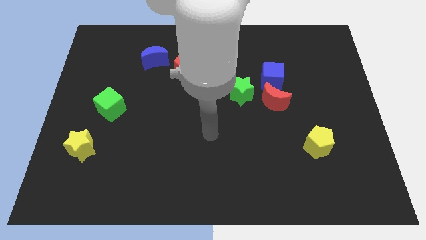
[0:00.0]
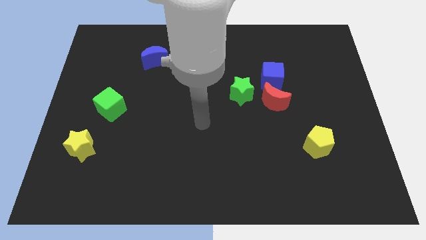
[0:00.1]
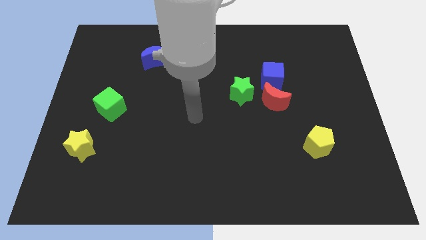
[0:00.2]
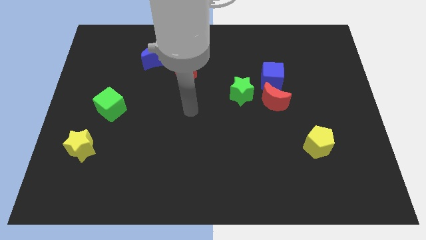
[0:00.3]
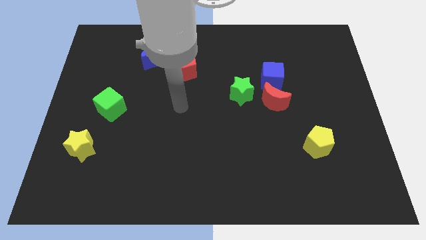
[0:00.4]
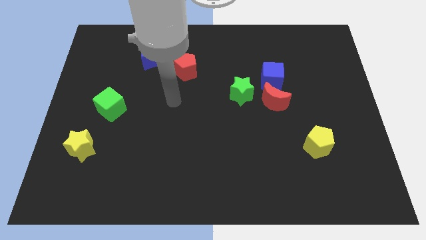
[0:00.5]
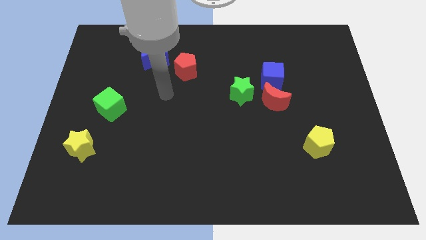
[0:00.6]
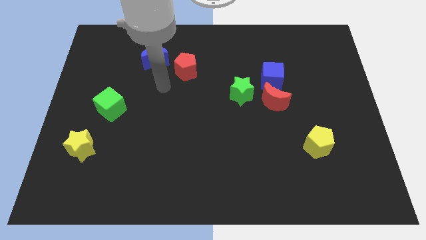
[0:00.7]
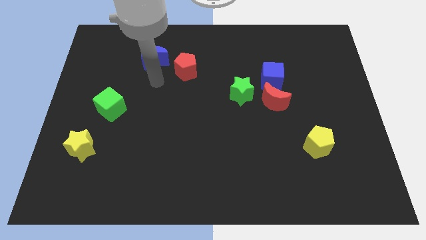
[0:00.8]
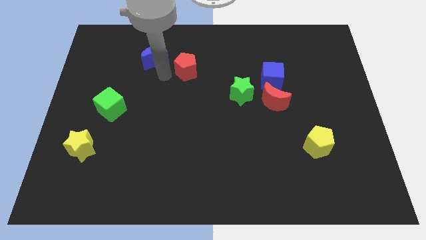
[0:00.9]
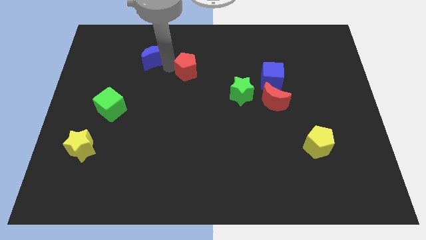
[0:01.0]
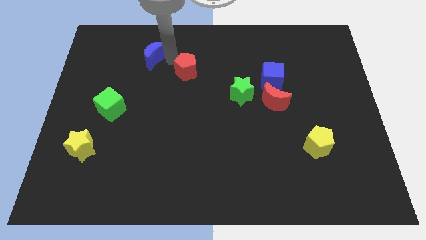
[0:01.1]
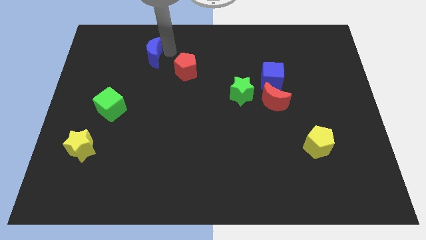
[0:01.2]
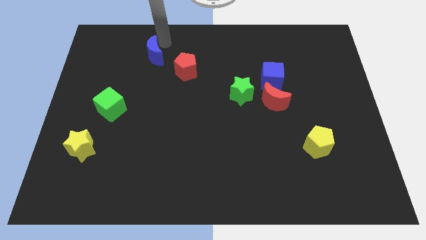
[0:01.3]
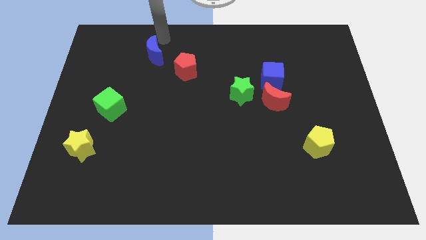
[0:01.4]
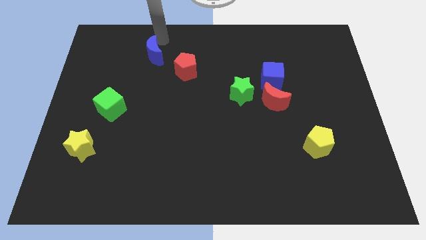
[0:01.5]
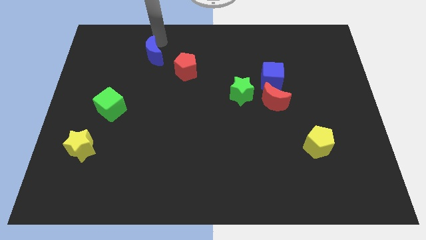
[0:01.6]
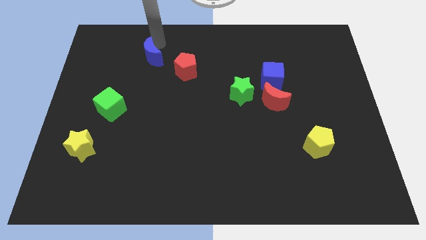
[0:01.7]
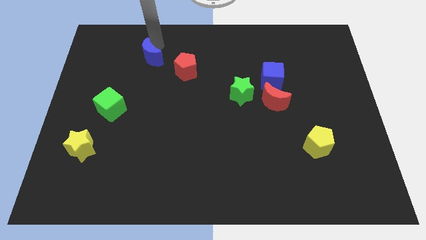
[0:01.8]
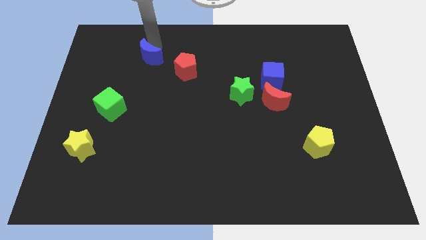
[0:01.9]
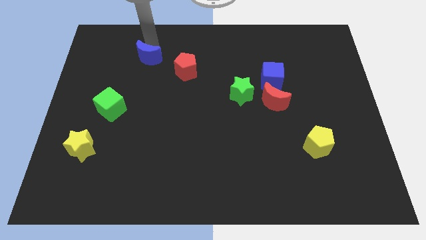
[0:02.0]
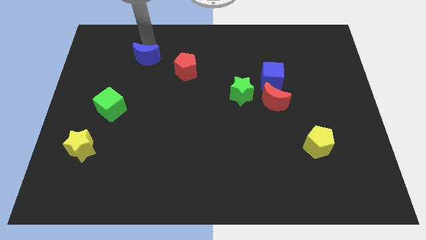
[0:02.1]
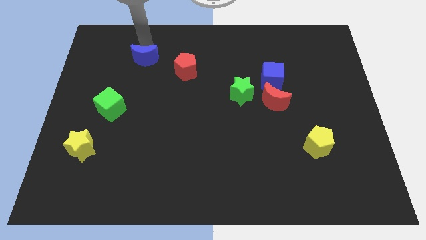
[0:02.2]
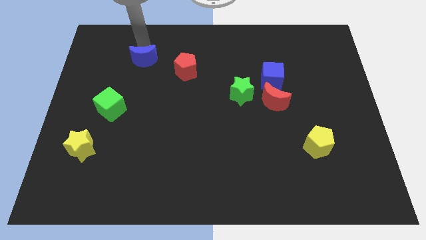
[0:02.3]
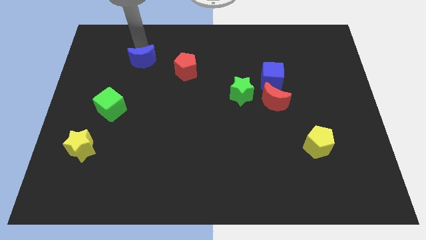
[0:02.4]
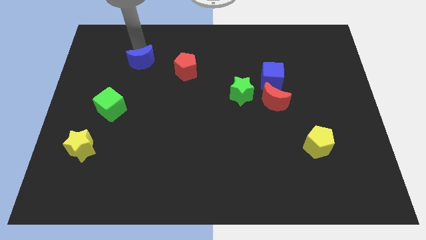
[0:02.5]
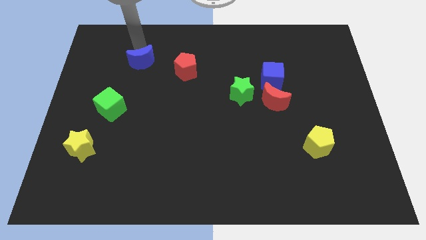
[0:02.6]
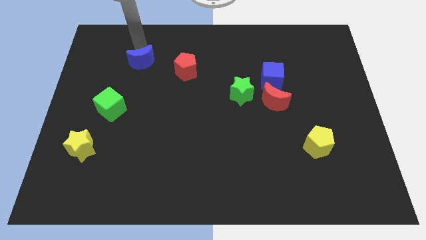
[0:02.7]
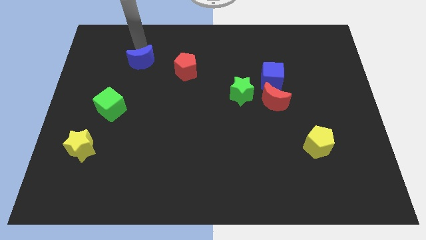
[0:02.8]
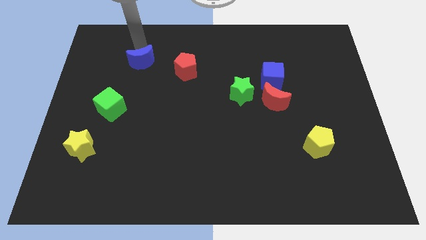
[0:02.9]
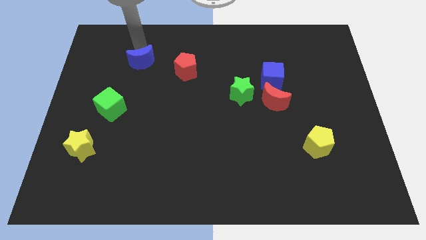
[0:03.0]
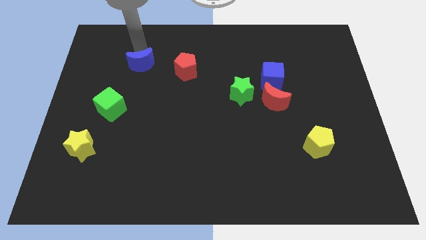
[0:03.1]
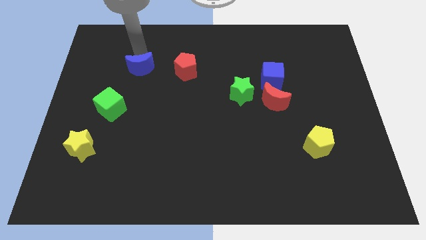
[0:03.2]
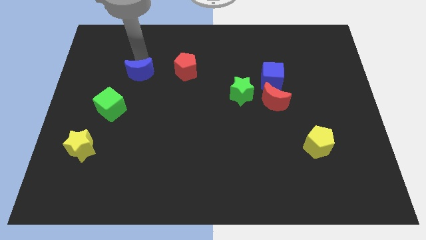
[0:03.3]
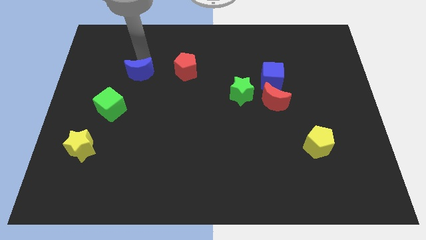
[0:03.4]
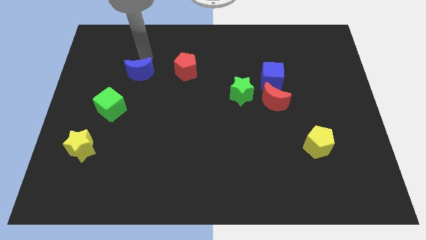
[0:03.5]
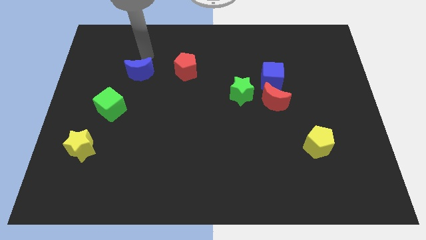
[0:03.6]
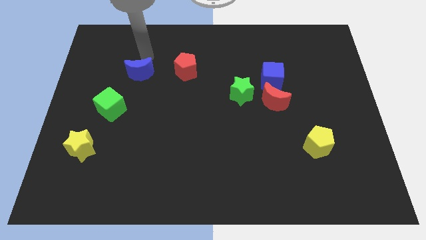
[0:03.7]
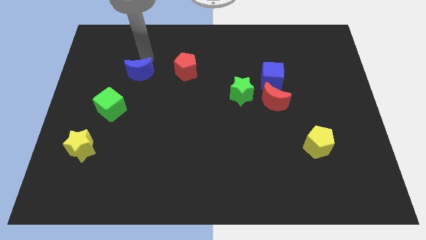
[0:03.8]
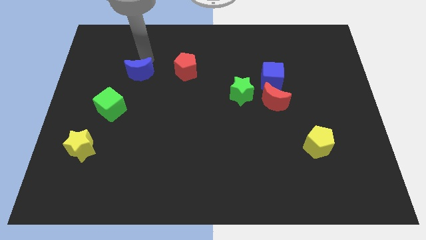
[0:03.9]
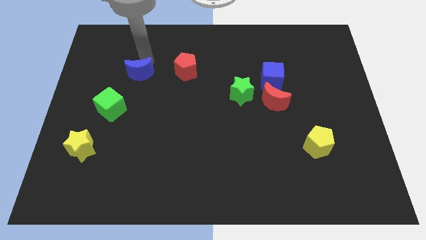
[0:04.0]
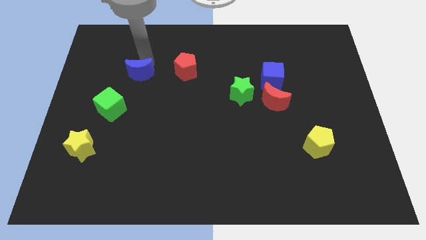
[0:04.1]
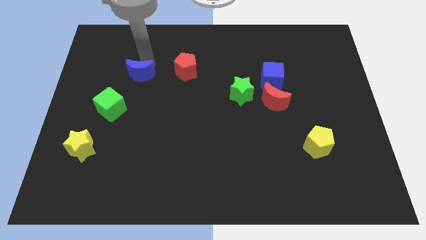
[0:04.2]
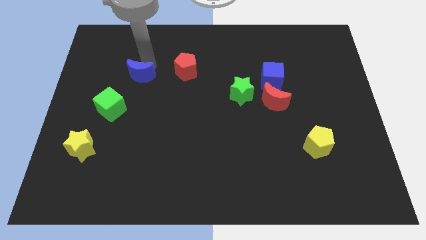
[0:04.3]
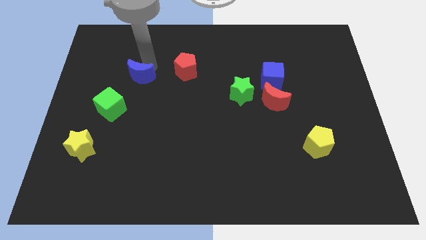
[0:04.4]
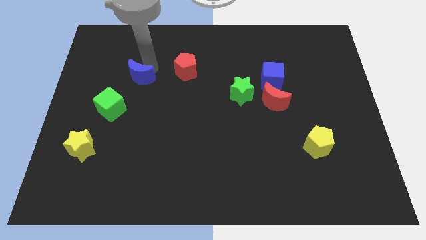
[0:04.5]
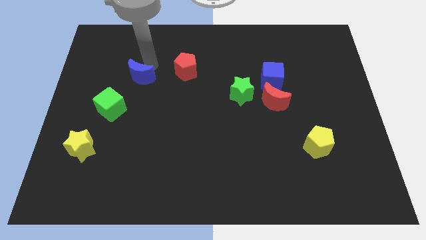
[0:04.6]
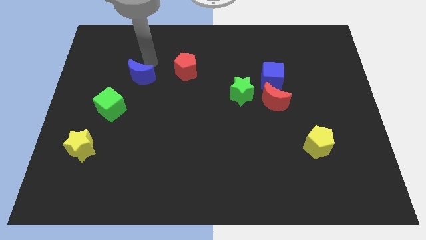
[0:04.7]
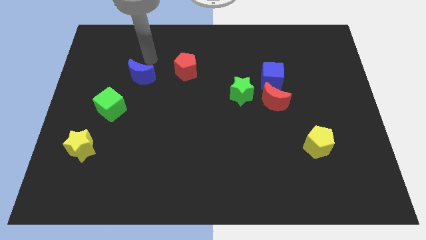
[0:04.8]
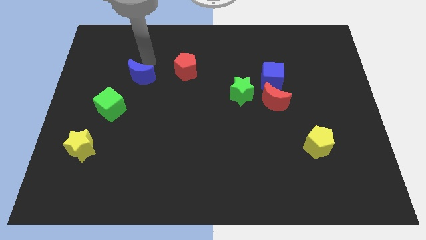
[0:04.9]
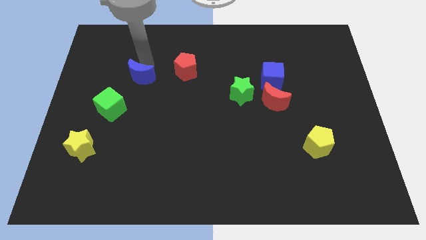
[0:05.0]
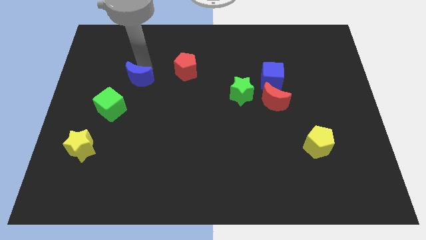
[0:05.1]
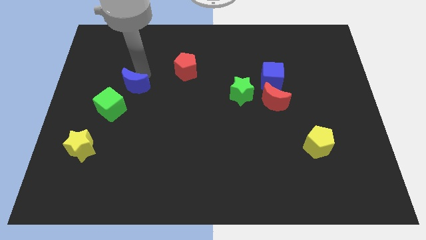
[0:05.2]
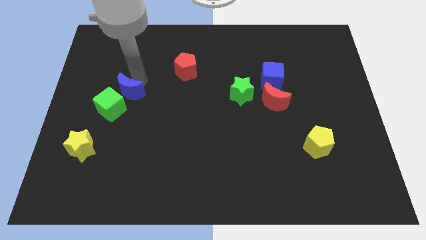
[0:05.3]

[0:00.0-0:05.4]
slide the blue moon to the green cube
